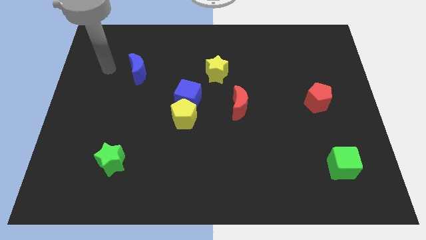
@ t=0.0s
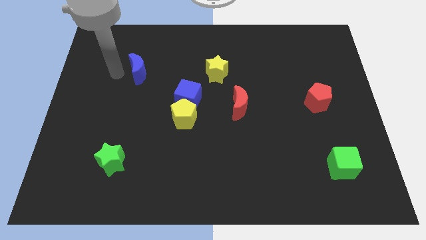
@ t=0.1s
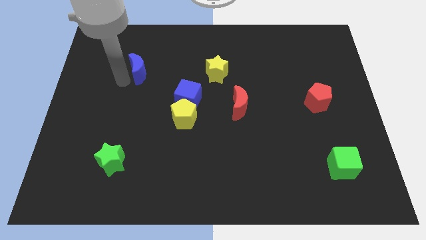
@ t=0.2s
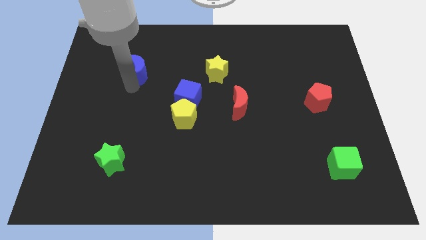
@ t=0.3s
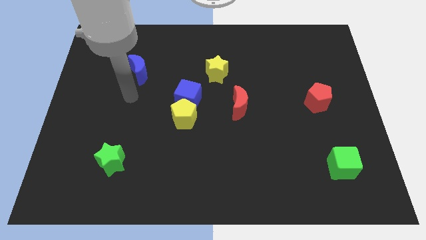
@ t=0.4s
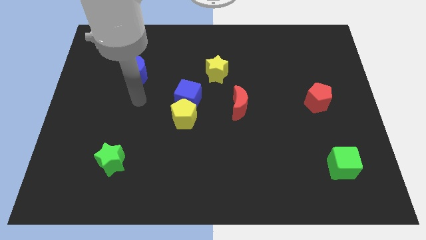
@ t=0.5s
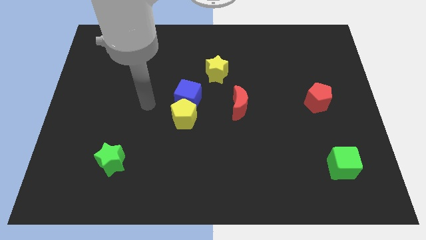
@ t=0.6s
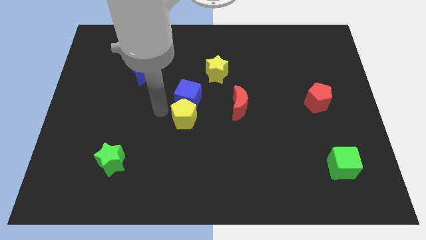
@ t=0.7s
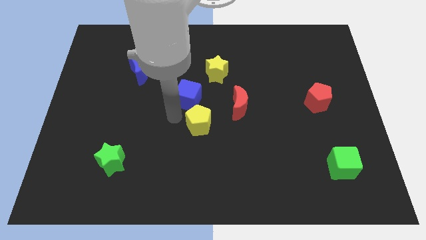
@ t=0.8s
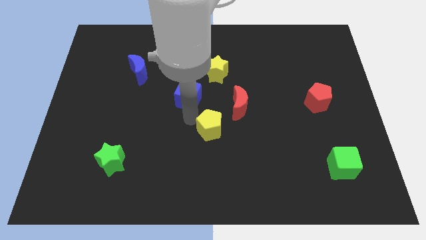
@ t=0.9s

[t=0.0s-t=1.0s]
pull the blue cube apart from the yellow pentagon

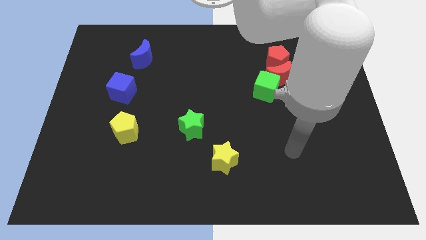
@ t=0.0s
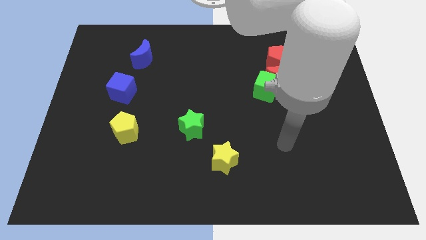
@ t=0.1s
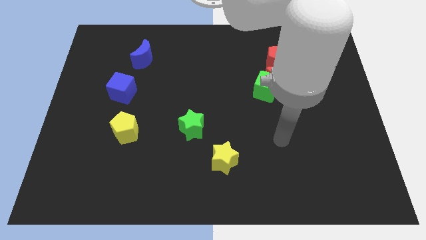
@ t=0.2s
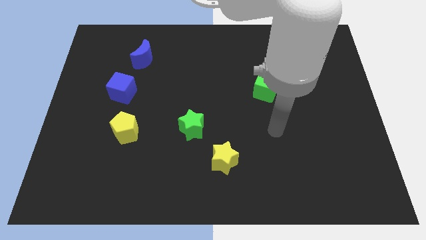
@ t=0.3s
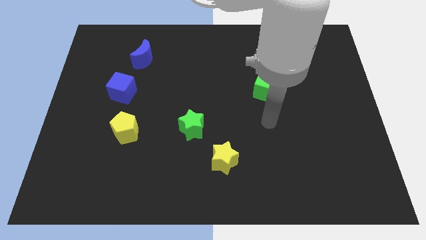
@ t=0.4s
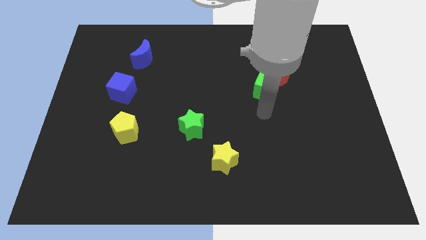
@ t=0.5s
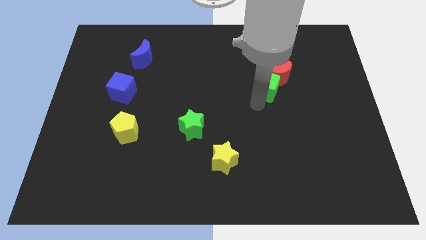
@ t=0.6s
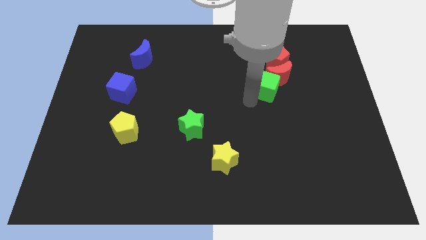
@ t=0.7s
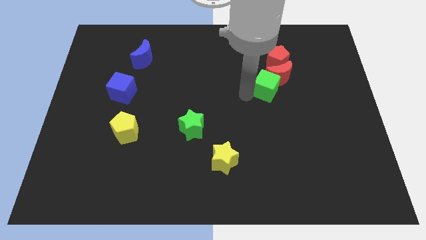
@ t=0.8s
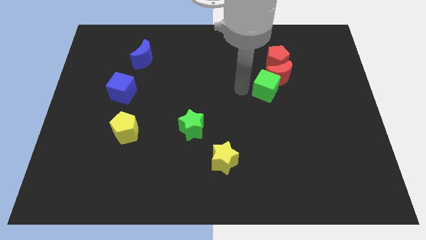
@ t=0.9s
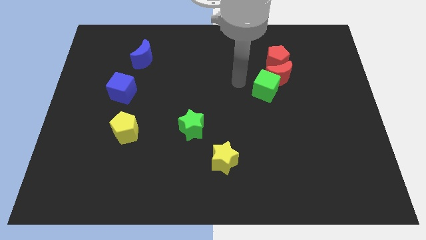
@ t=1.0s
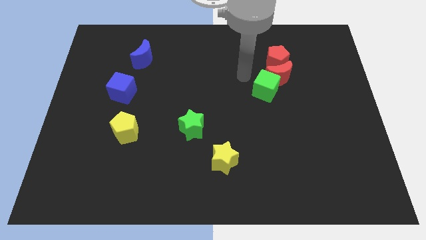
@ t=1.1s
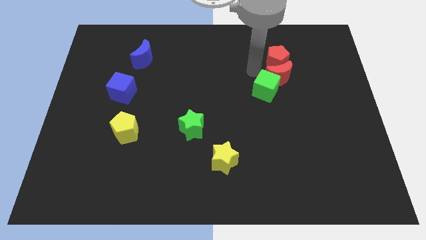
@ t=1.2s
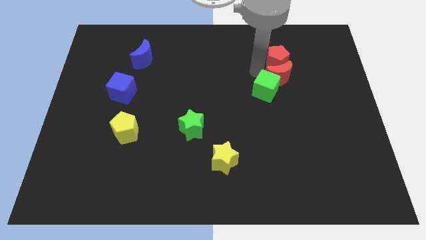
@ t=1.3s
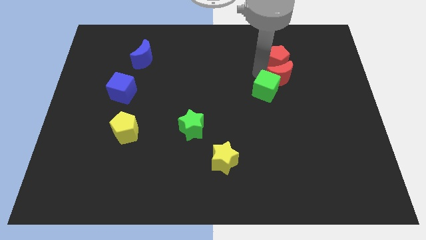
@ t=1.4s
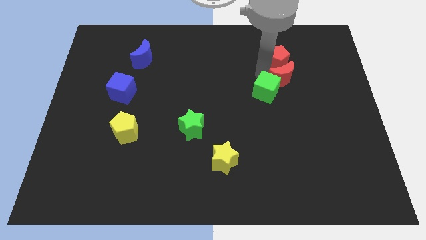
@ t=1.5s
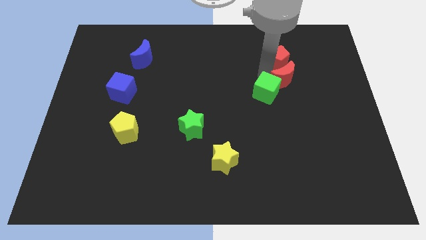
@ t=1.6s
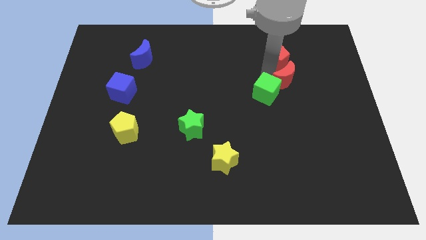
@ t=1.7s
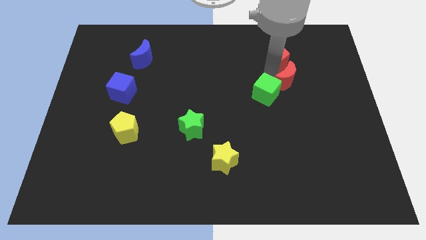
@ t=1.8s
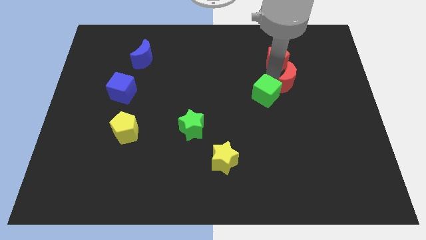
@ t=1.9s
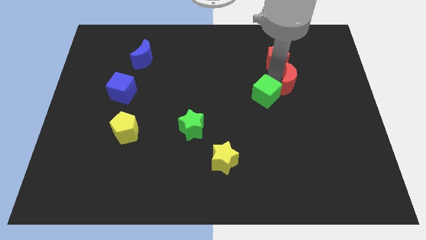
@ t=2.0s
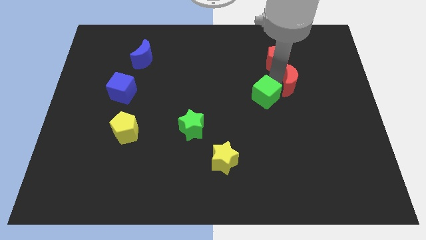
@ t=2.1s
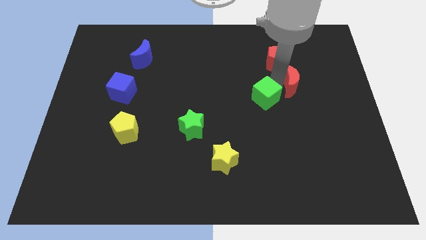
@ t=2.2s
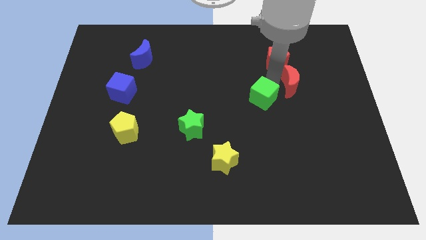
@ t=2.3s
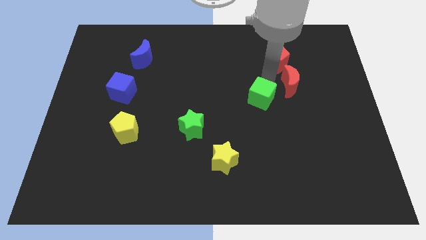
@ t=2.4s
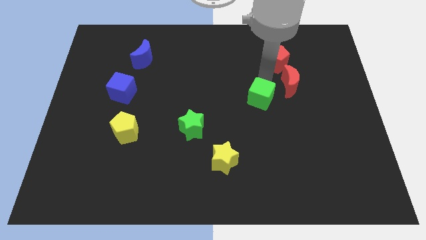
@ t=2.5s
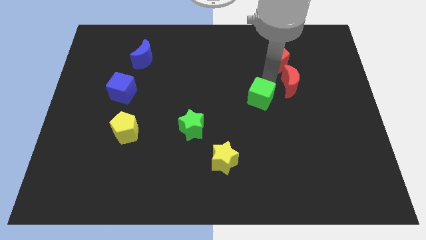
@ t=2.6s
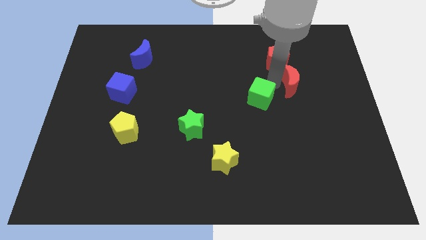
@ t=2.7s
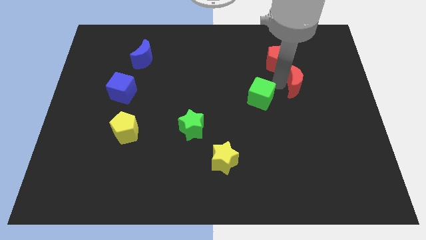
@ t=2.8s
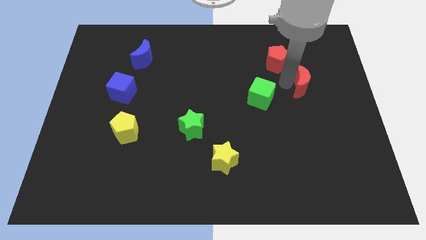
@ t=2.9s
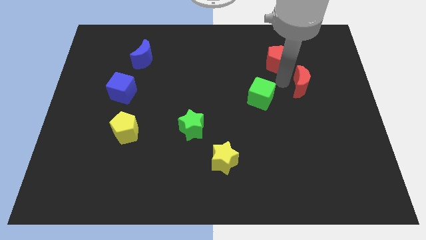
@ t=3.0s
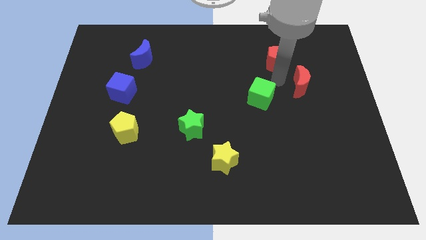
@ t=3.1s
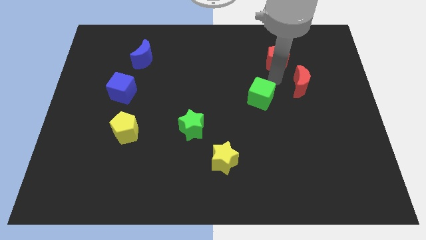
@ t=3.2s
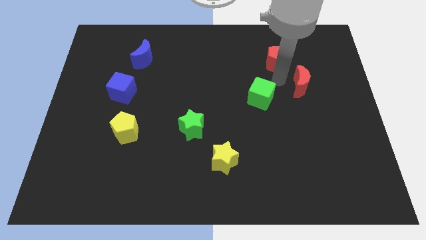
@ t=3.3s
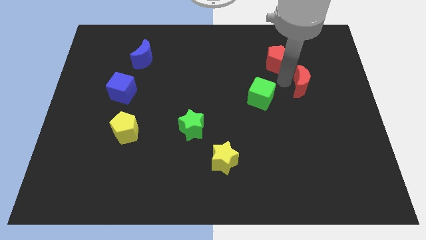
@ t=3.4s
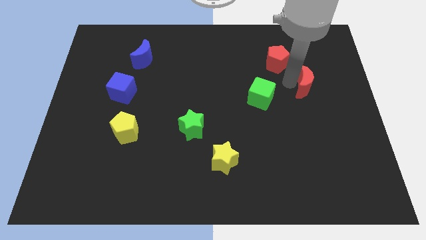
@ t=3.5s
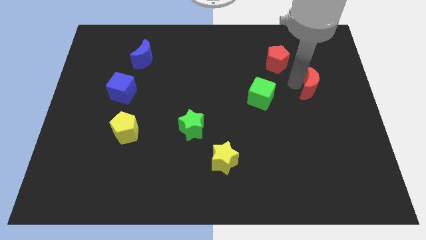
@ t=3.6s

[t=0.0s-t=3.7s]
separate the red moon from the green cube and red pentagon

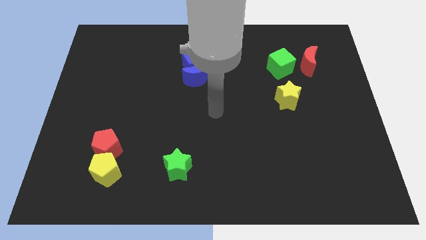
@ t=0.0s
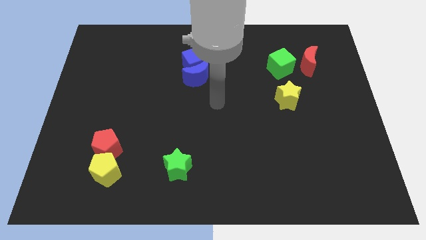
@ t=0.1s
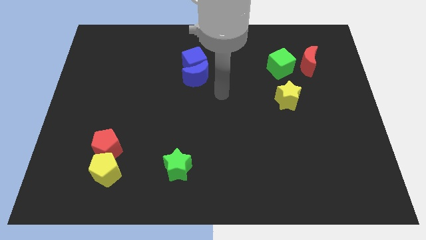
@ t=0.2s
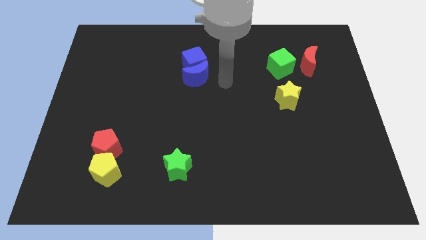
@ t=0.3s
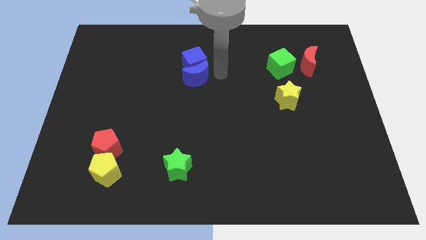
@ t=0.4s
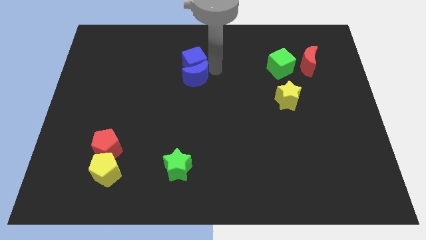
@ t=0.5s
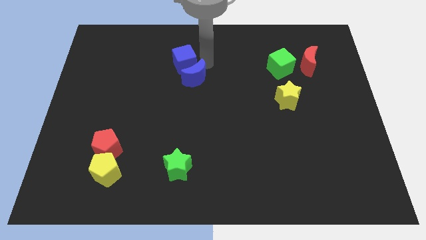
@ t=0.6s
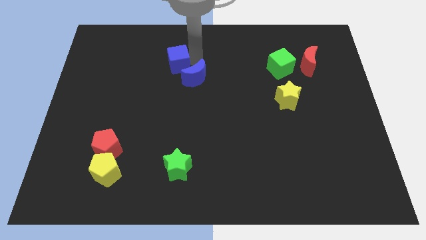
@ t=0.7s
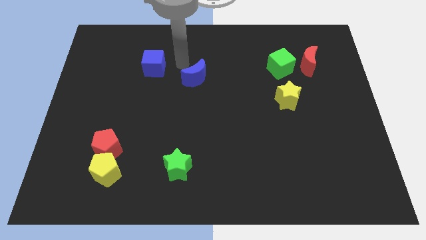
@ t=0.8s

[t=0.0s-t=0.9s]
pull the blue moon apart from the blue cube

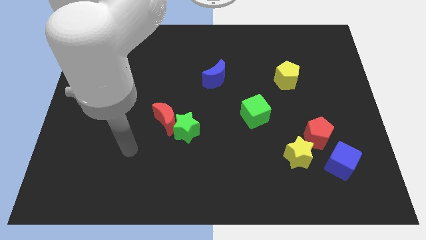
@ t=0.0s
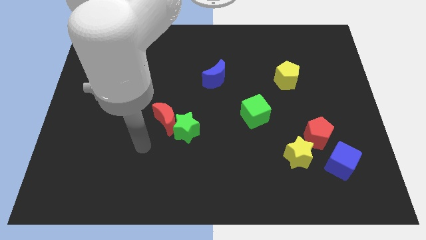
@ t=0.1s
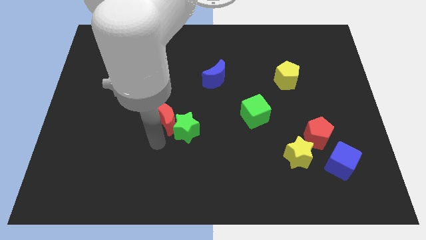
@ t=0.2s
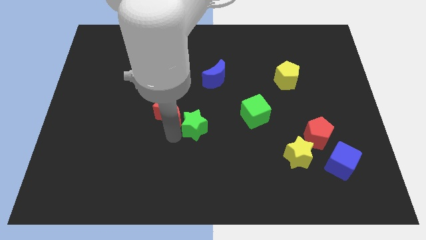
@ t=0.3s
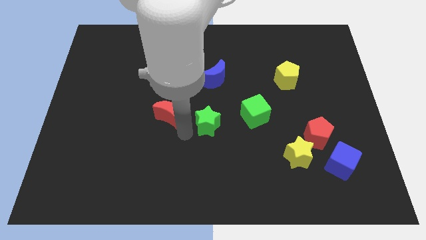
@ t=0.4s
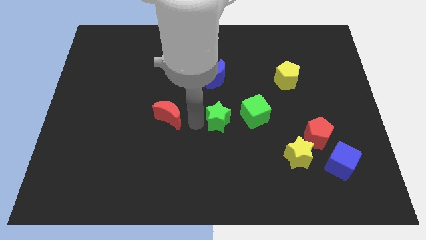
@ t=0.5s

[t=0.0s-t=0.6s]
separate the red moon from the green star

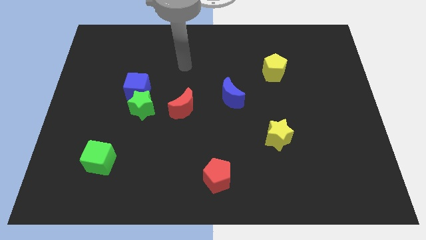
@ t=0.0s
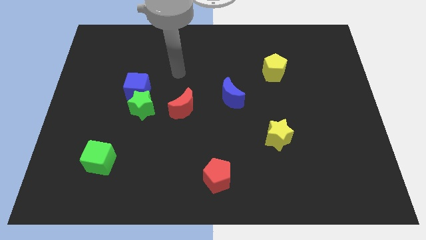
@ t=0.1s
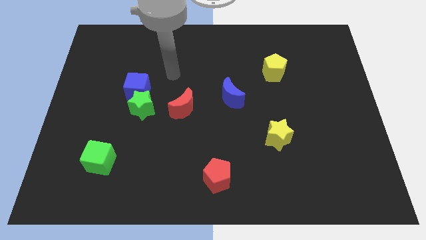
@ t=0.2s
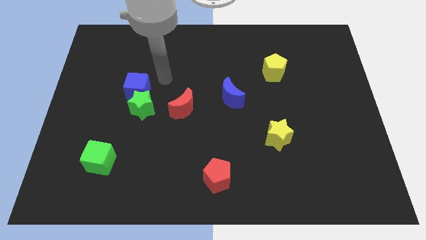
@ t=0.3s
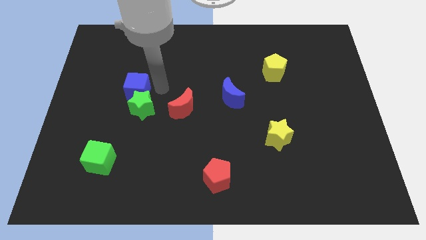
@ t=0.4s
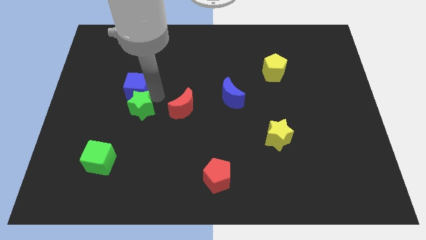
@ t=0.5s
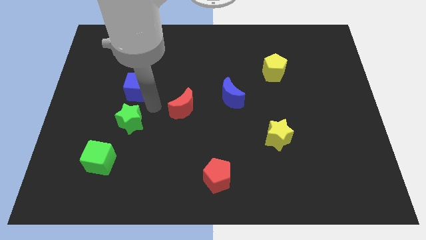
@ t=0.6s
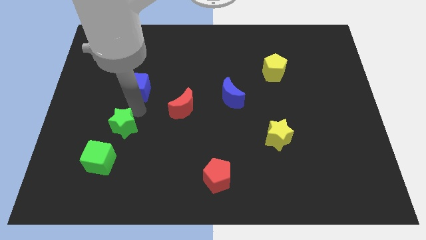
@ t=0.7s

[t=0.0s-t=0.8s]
separate the blue cube from the green star

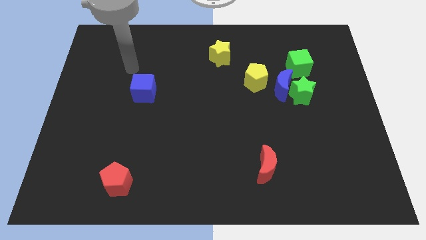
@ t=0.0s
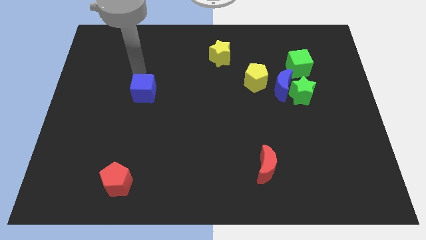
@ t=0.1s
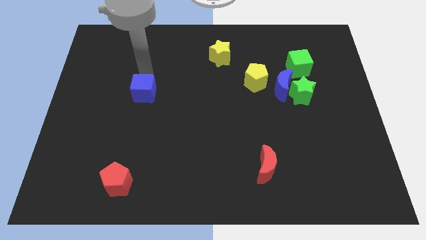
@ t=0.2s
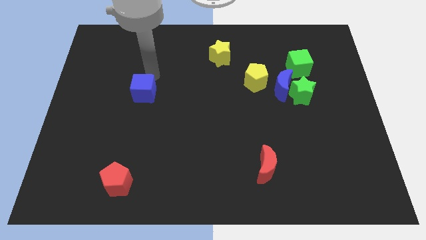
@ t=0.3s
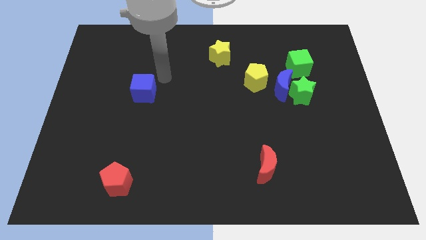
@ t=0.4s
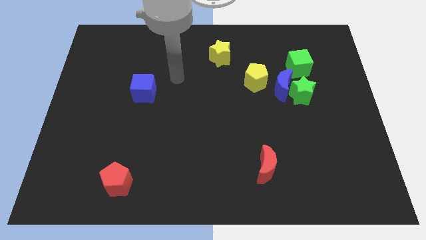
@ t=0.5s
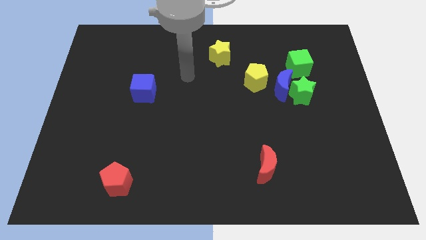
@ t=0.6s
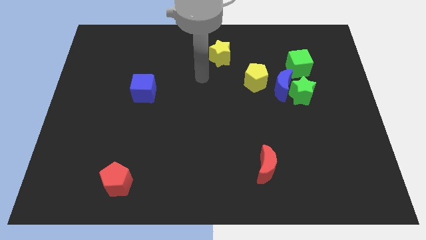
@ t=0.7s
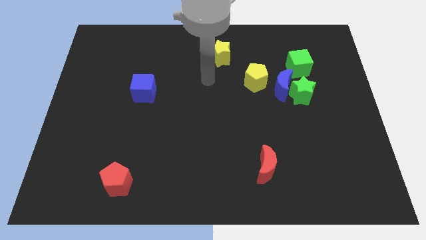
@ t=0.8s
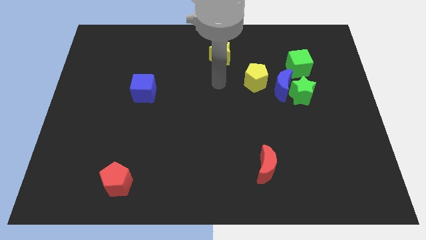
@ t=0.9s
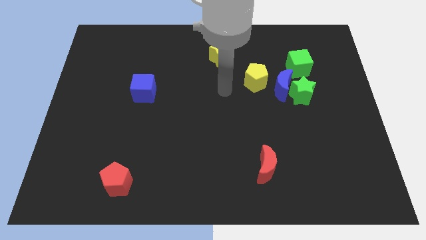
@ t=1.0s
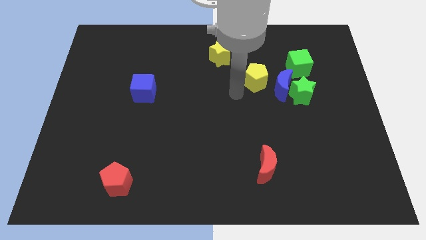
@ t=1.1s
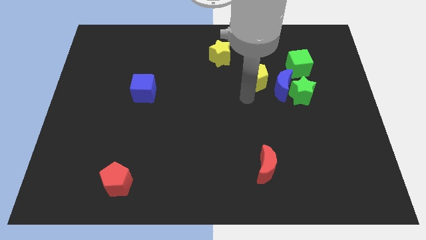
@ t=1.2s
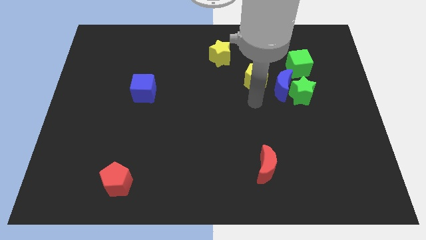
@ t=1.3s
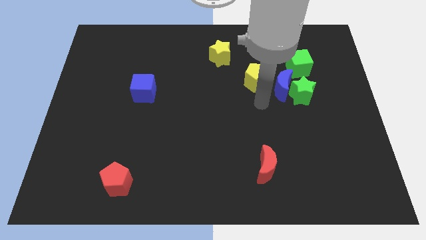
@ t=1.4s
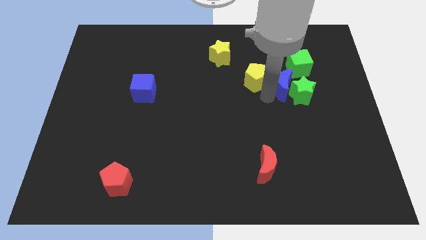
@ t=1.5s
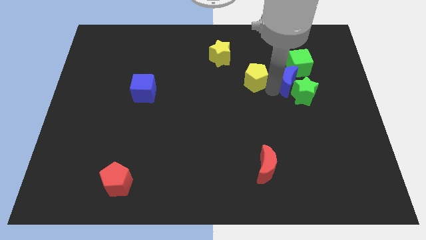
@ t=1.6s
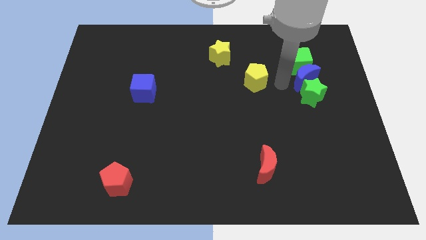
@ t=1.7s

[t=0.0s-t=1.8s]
separate the yellow pentagon from the blue moon

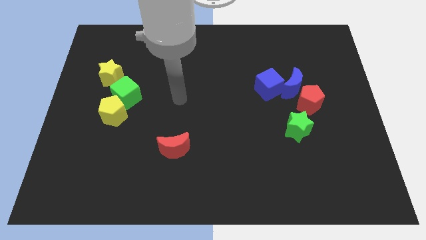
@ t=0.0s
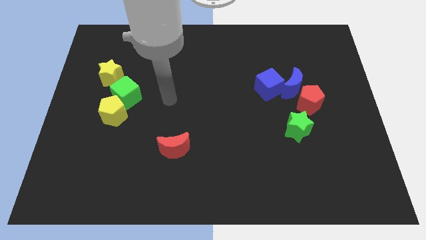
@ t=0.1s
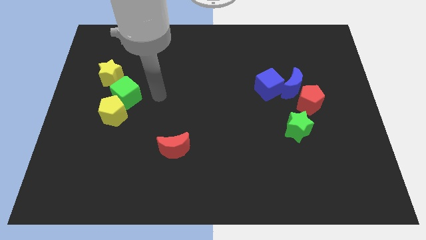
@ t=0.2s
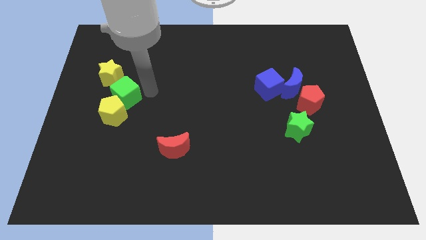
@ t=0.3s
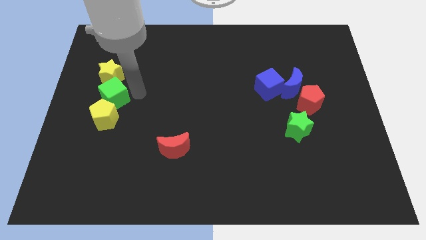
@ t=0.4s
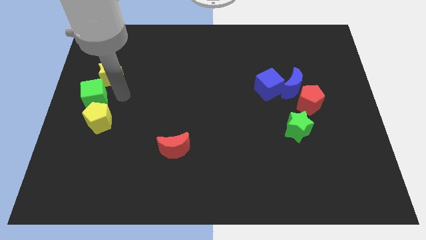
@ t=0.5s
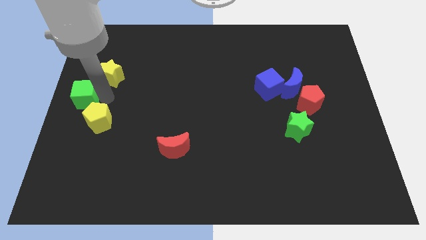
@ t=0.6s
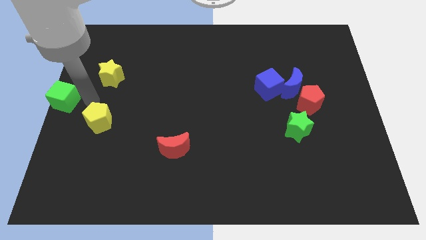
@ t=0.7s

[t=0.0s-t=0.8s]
move the yellow pentagon away from the green cube
